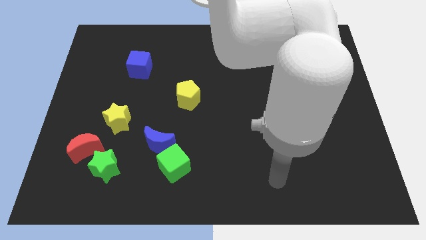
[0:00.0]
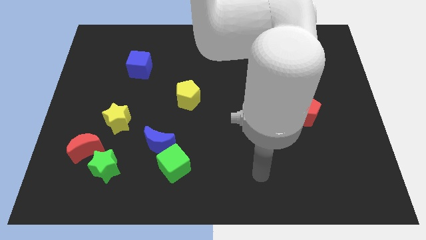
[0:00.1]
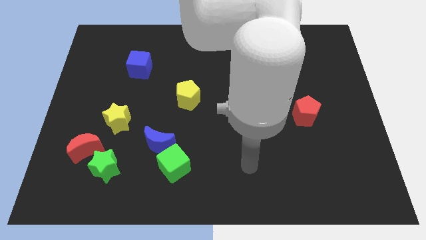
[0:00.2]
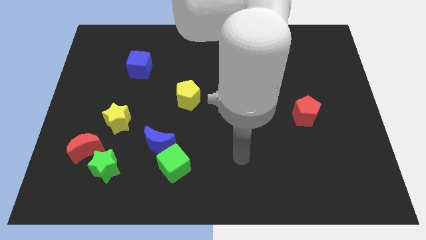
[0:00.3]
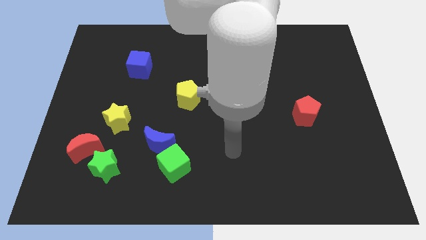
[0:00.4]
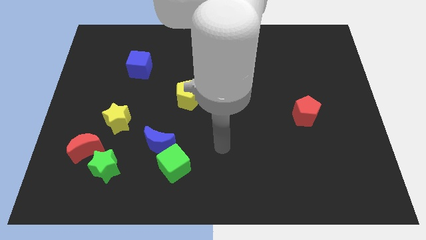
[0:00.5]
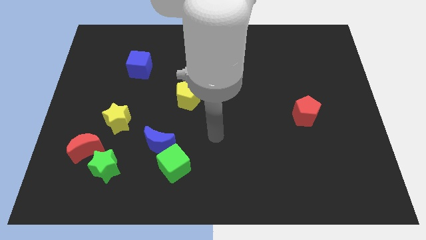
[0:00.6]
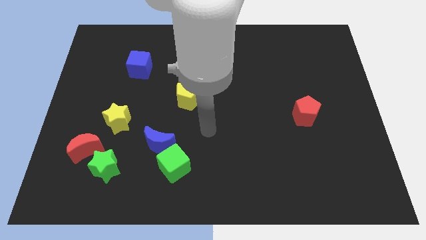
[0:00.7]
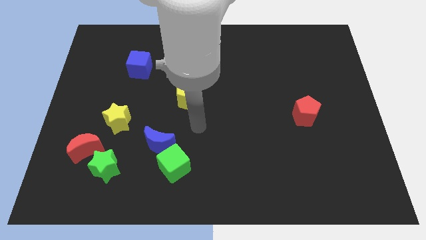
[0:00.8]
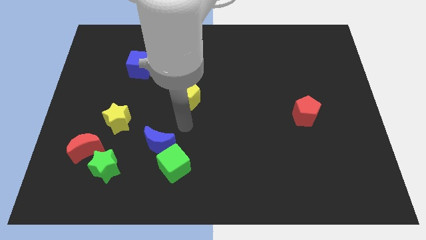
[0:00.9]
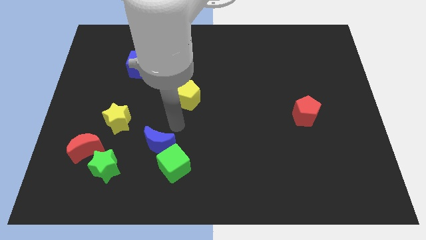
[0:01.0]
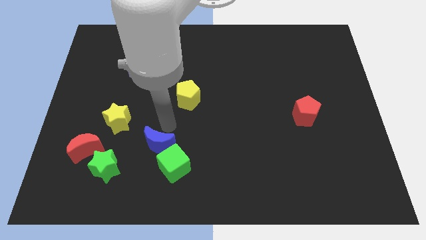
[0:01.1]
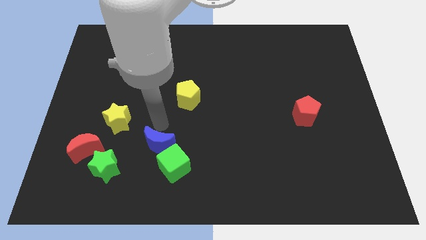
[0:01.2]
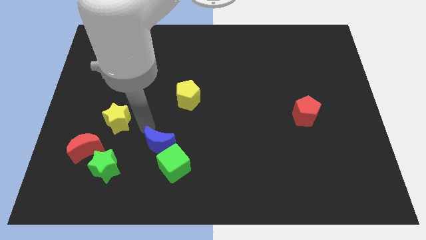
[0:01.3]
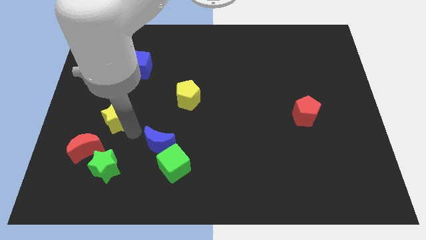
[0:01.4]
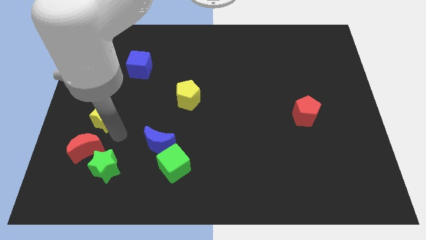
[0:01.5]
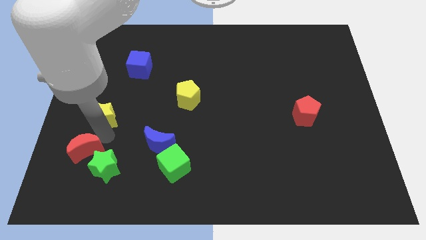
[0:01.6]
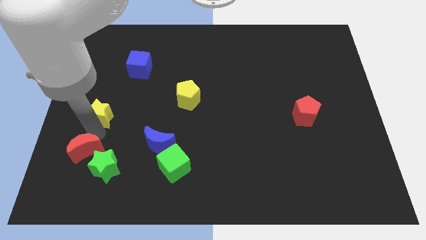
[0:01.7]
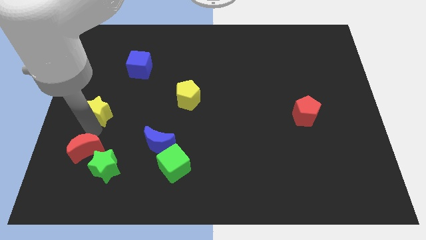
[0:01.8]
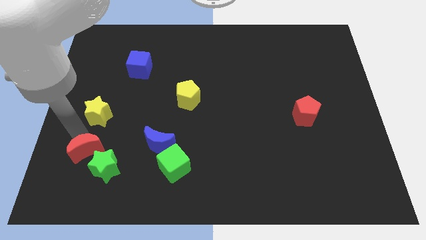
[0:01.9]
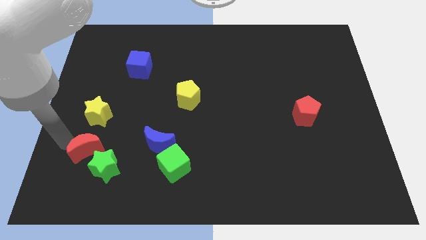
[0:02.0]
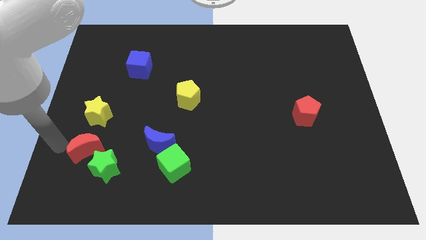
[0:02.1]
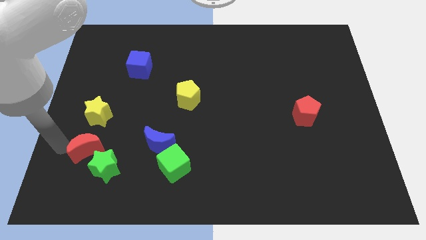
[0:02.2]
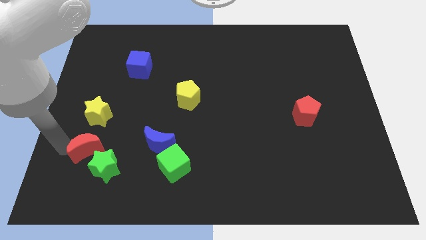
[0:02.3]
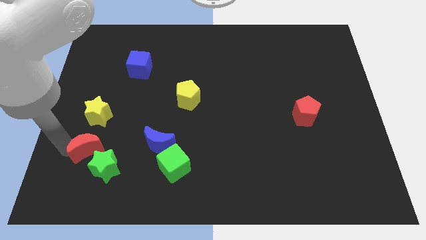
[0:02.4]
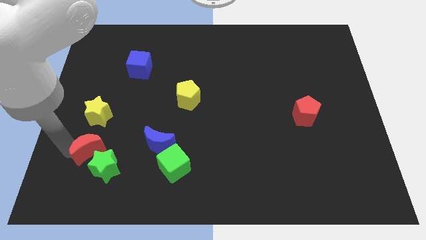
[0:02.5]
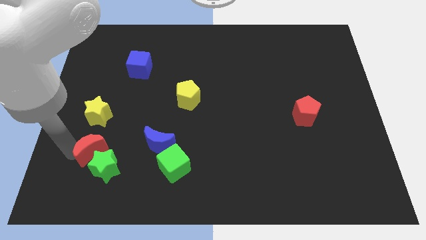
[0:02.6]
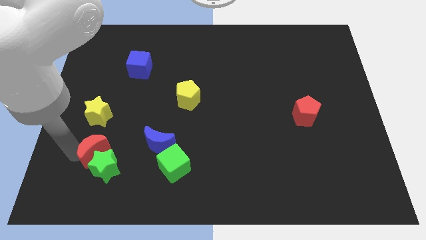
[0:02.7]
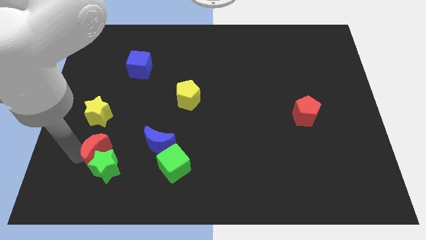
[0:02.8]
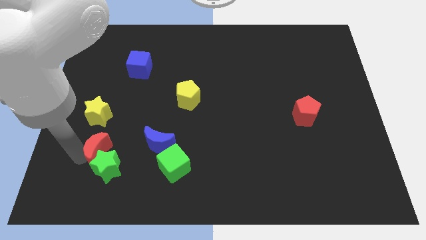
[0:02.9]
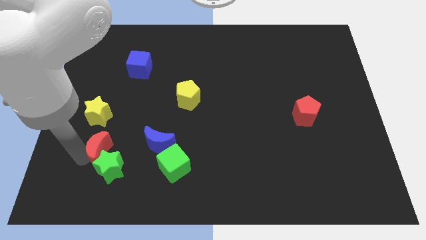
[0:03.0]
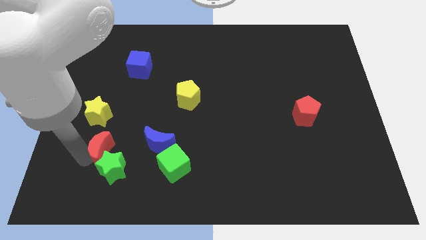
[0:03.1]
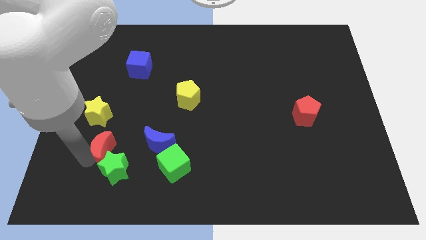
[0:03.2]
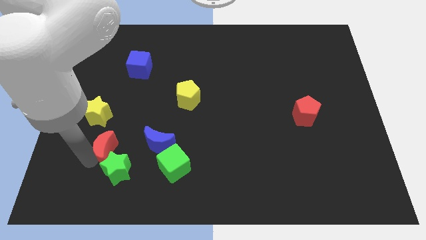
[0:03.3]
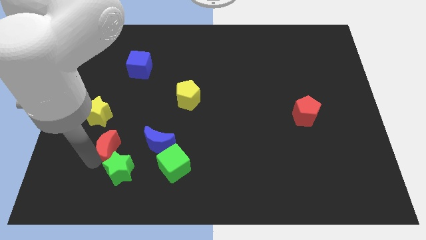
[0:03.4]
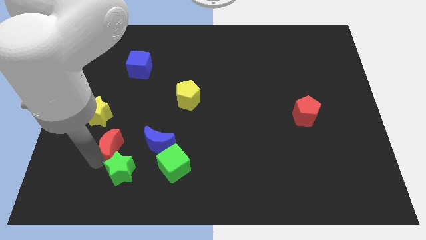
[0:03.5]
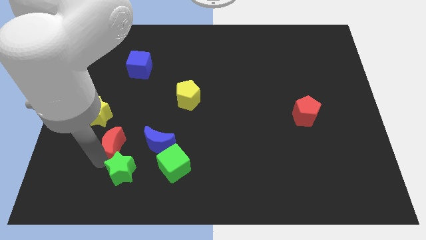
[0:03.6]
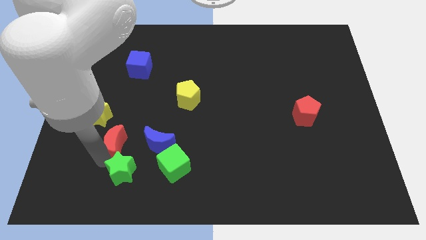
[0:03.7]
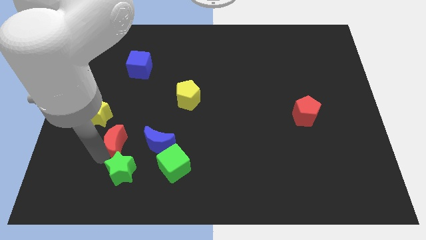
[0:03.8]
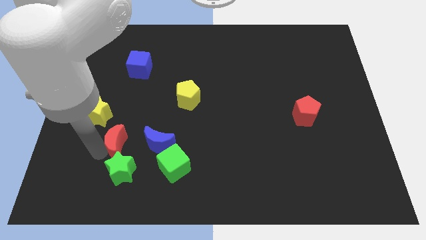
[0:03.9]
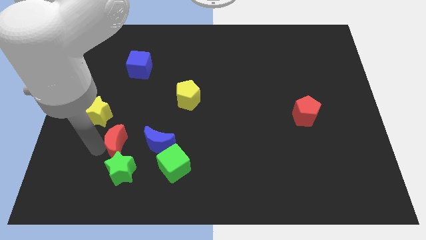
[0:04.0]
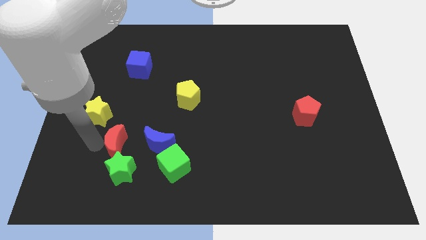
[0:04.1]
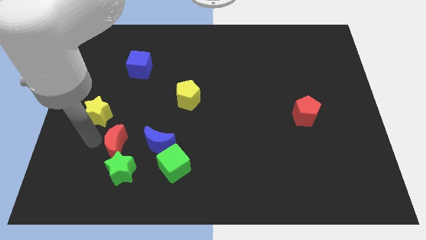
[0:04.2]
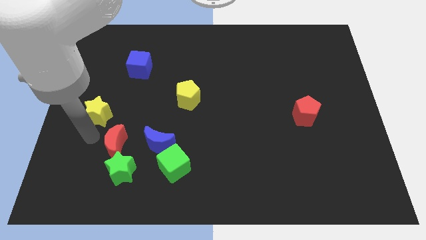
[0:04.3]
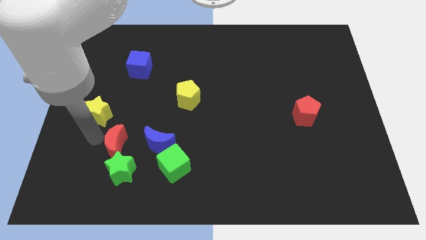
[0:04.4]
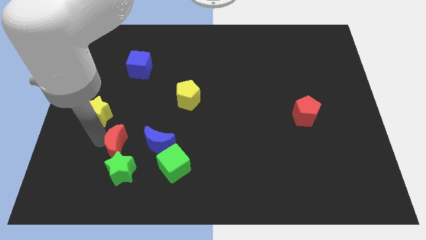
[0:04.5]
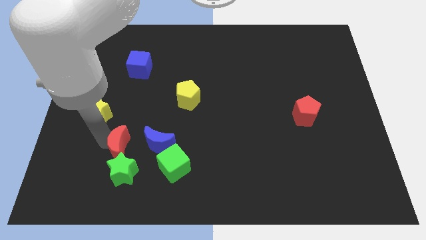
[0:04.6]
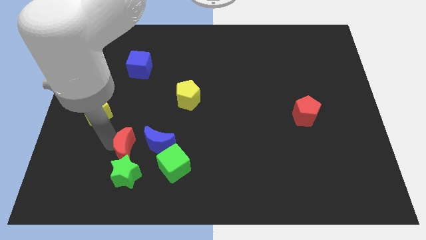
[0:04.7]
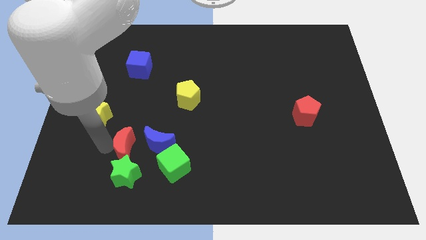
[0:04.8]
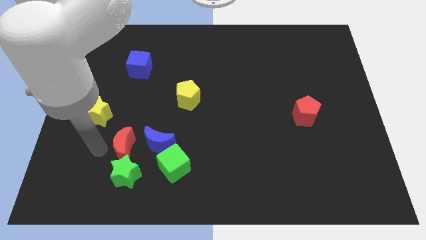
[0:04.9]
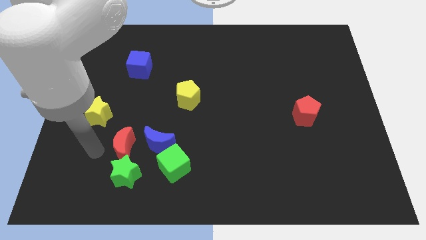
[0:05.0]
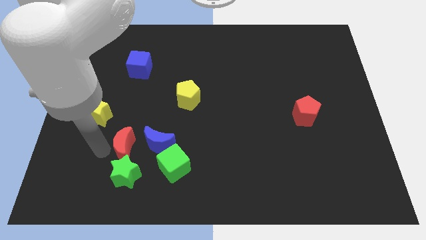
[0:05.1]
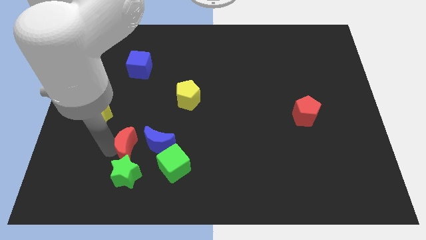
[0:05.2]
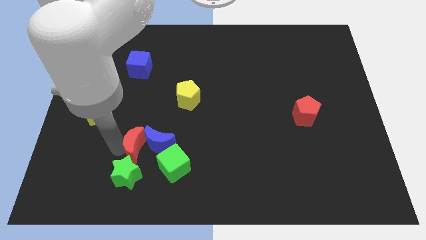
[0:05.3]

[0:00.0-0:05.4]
slide the red moon to the blue moon

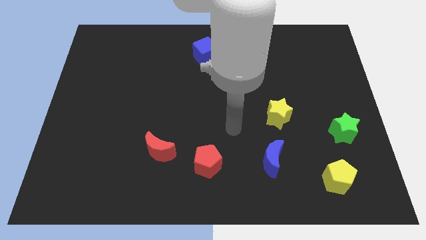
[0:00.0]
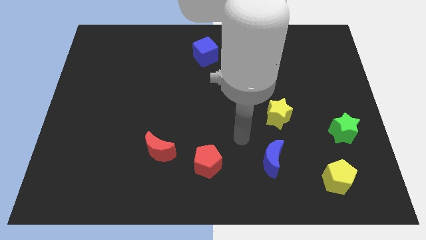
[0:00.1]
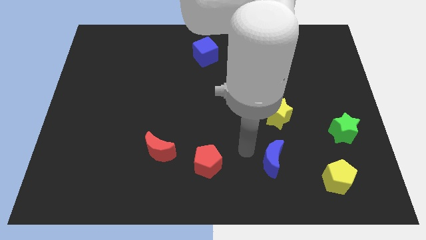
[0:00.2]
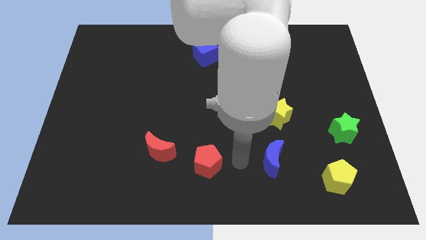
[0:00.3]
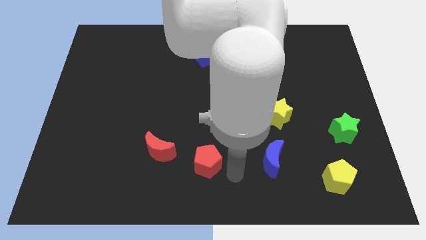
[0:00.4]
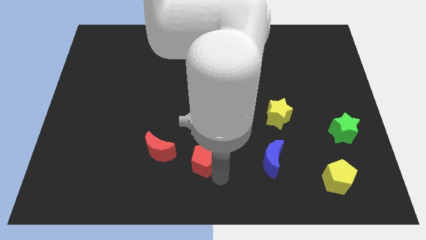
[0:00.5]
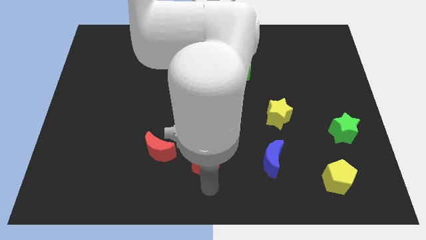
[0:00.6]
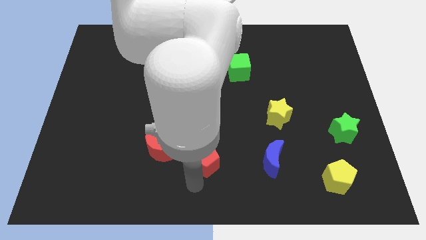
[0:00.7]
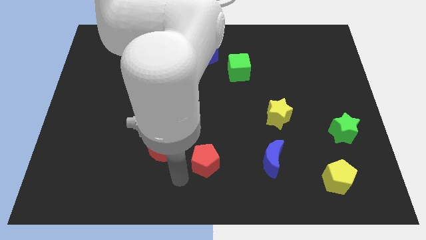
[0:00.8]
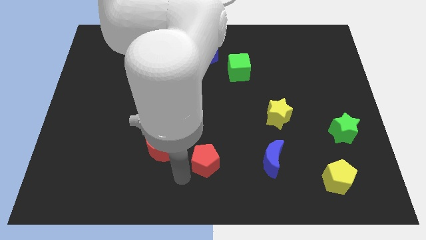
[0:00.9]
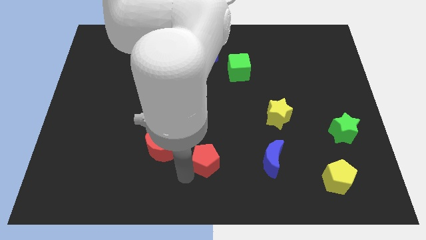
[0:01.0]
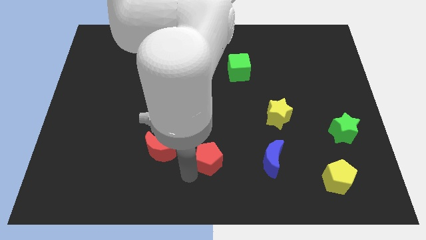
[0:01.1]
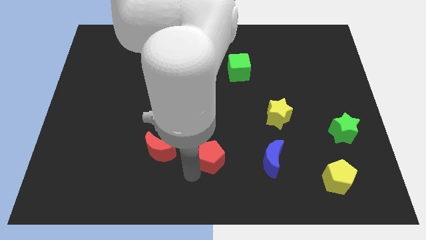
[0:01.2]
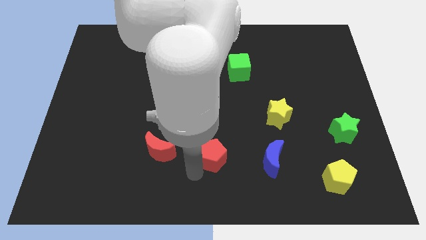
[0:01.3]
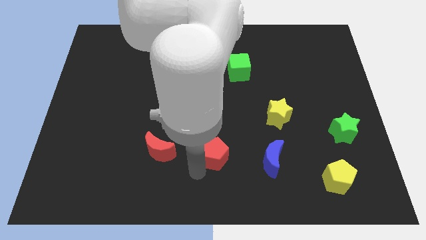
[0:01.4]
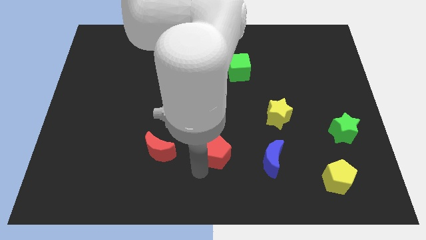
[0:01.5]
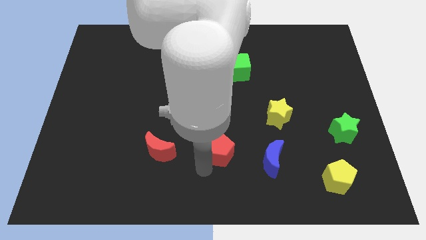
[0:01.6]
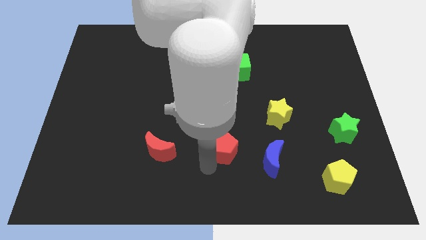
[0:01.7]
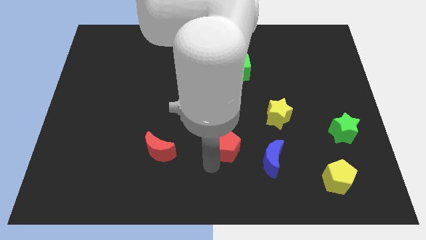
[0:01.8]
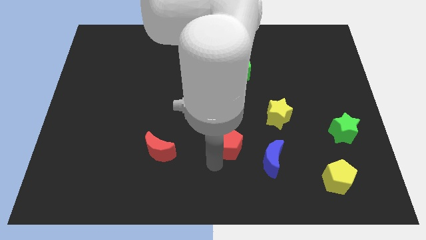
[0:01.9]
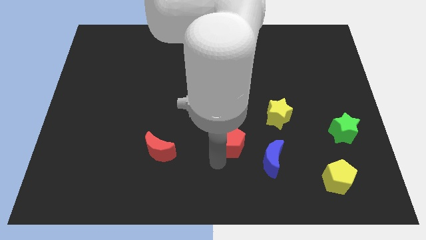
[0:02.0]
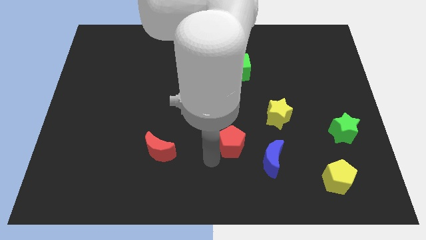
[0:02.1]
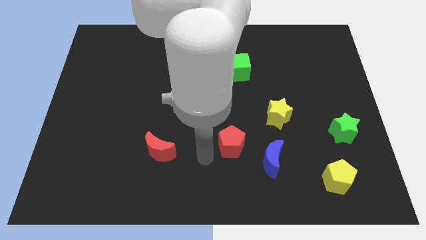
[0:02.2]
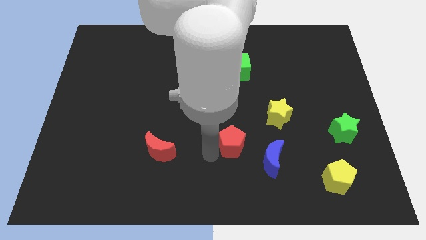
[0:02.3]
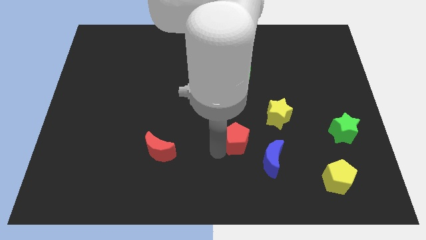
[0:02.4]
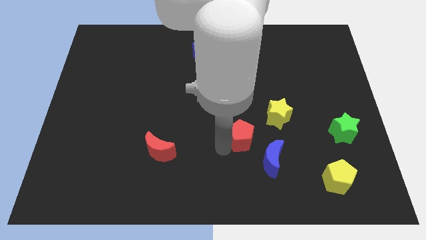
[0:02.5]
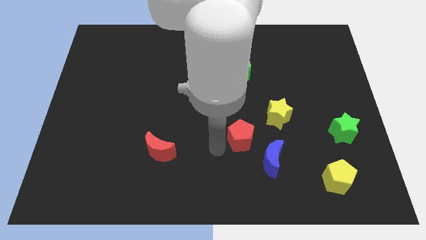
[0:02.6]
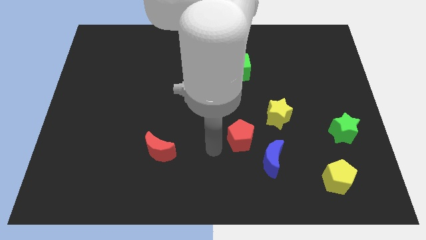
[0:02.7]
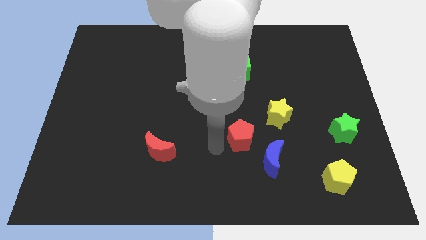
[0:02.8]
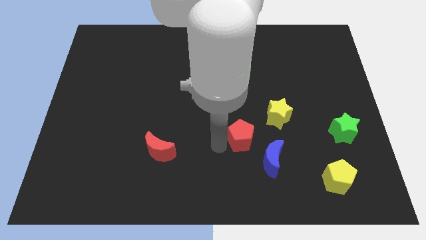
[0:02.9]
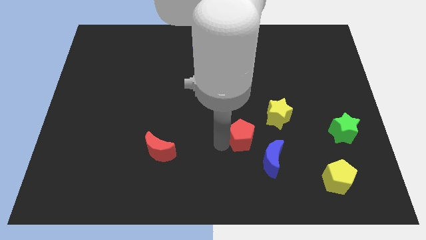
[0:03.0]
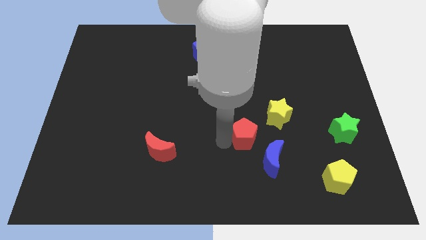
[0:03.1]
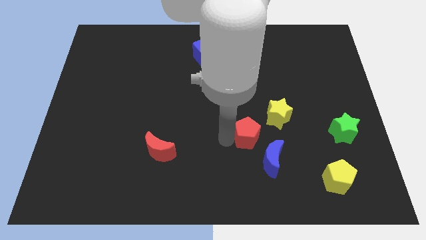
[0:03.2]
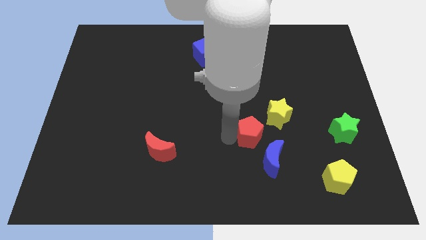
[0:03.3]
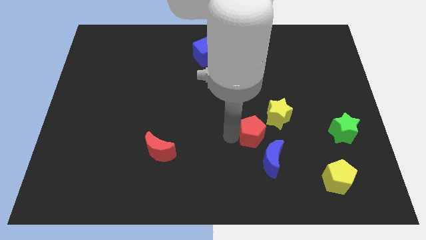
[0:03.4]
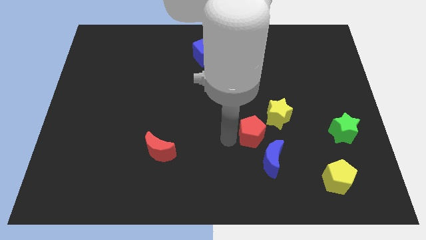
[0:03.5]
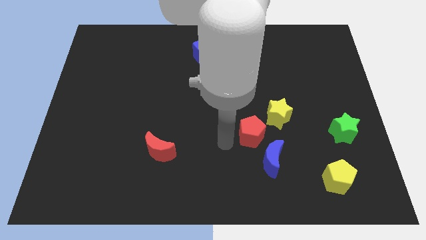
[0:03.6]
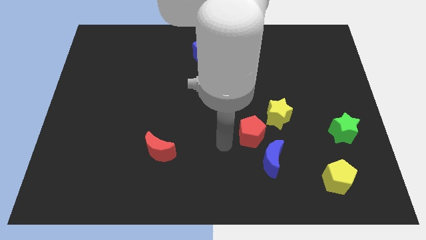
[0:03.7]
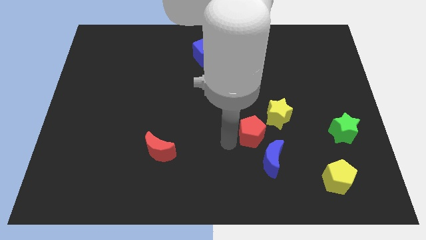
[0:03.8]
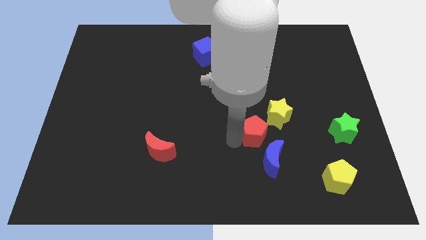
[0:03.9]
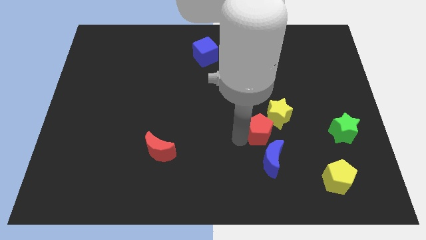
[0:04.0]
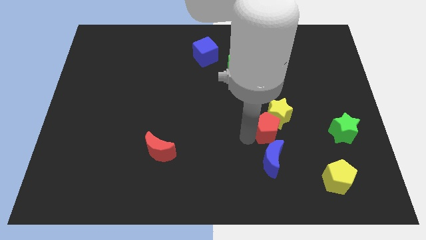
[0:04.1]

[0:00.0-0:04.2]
slide the red pentagon to the yellow star
